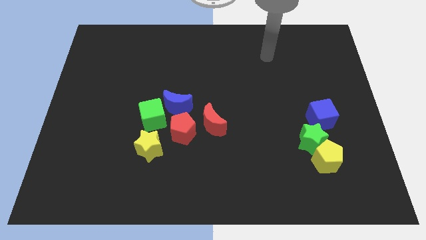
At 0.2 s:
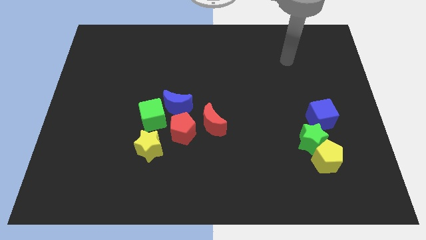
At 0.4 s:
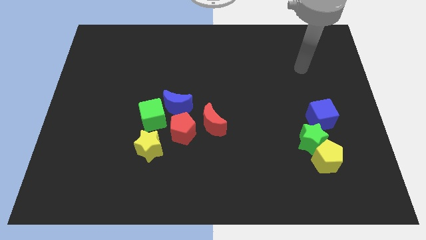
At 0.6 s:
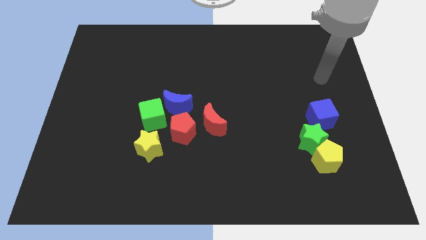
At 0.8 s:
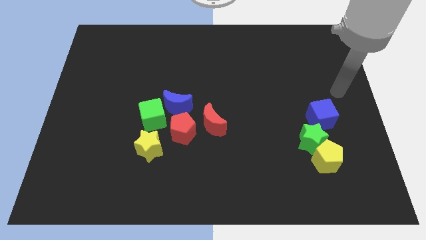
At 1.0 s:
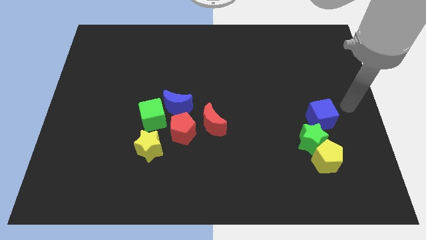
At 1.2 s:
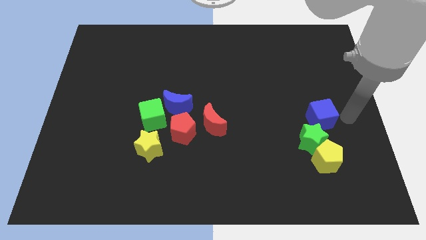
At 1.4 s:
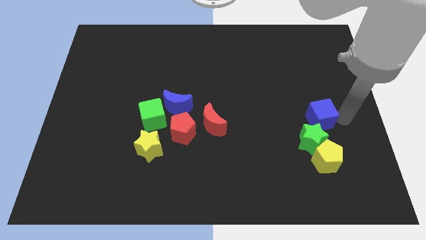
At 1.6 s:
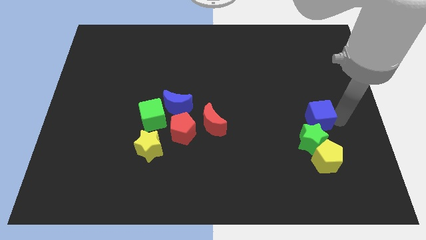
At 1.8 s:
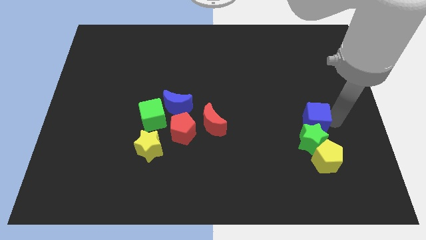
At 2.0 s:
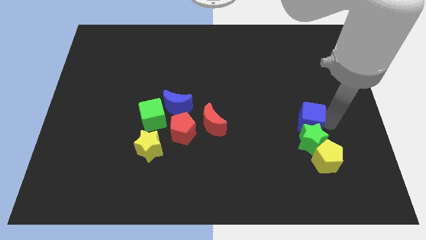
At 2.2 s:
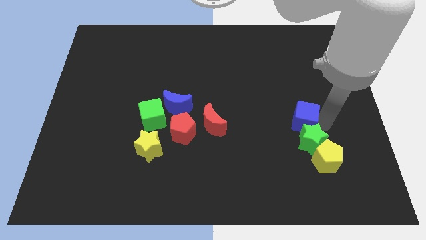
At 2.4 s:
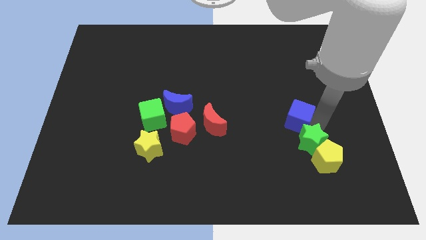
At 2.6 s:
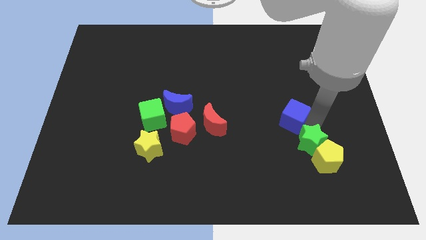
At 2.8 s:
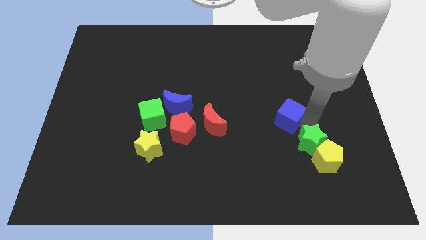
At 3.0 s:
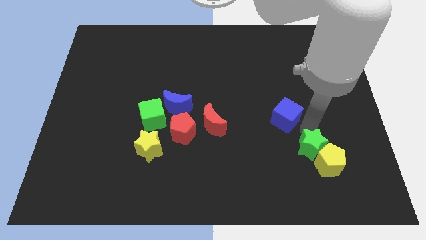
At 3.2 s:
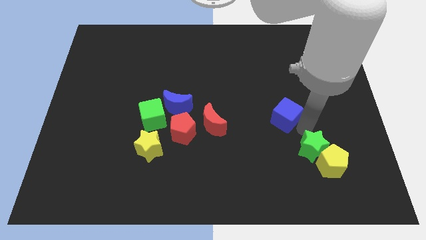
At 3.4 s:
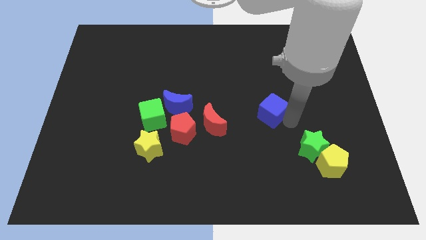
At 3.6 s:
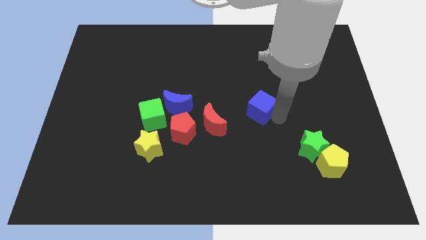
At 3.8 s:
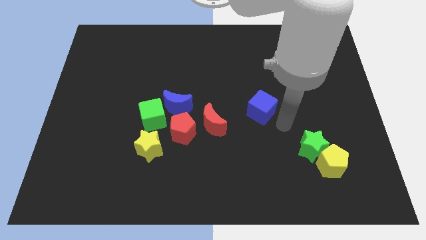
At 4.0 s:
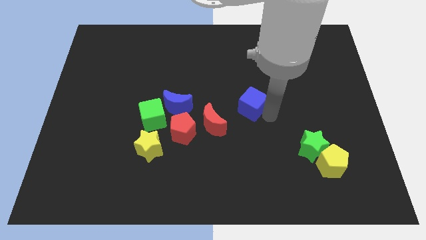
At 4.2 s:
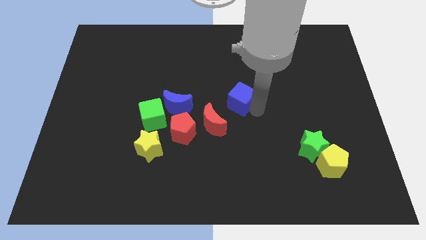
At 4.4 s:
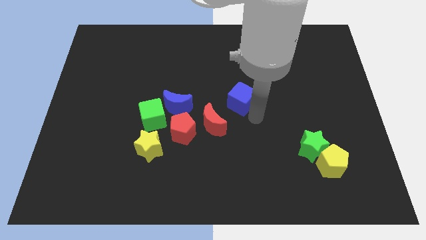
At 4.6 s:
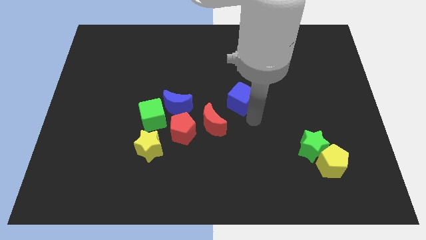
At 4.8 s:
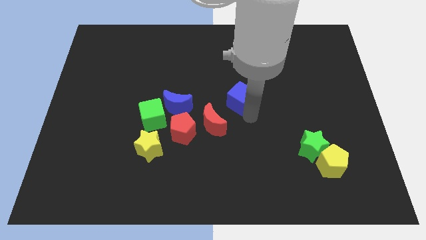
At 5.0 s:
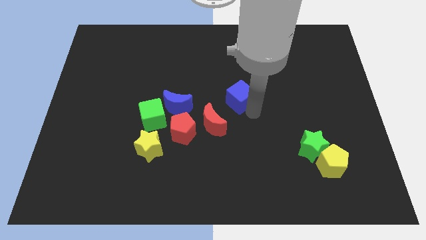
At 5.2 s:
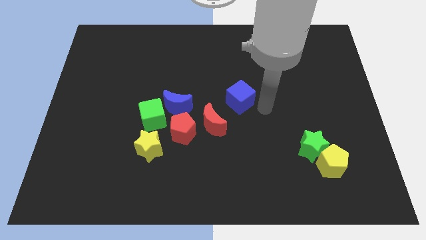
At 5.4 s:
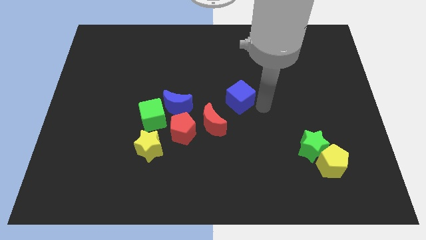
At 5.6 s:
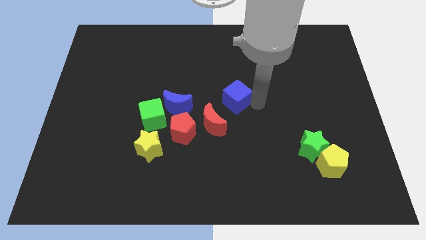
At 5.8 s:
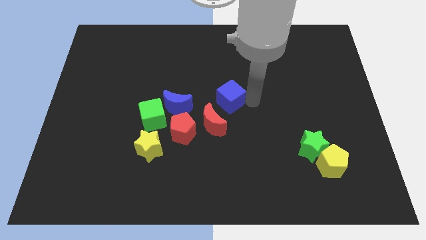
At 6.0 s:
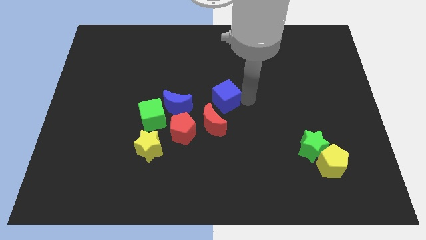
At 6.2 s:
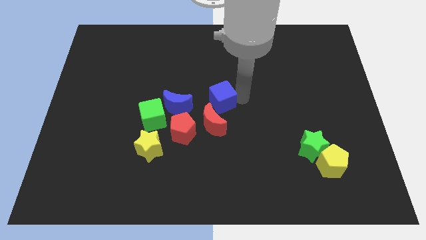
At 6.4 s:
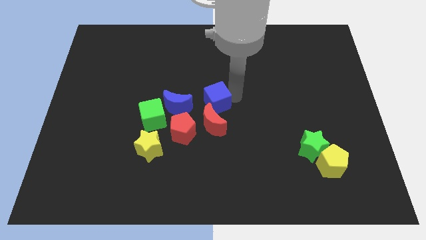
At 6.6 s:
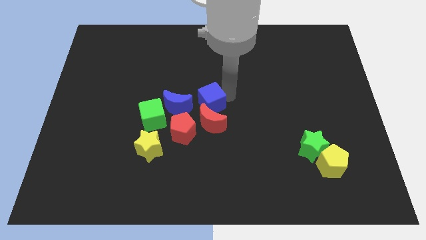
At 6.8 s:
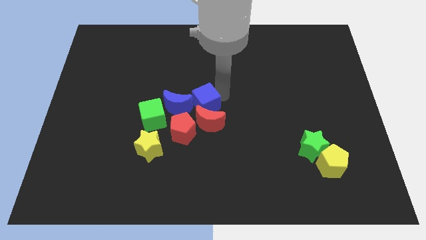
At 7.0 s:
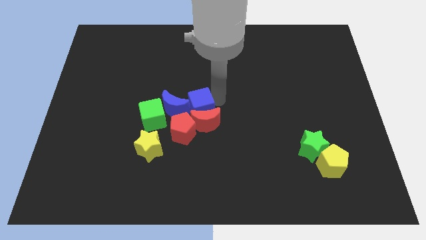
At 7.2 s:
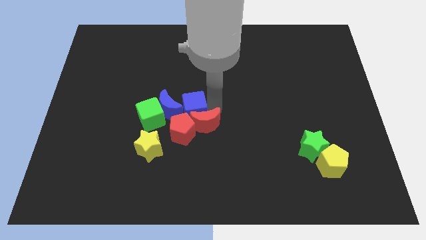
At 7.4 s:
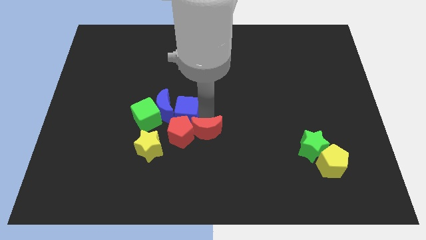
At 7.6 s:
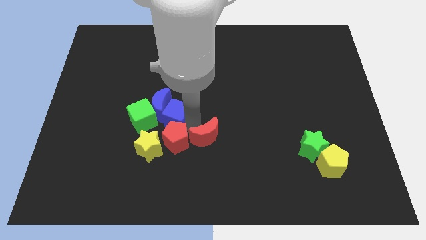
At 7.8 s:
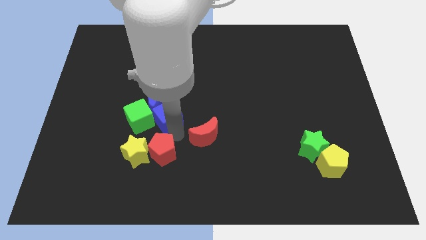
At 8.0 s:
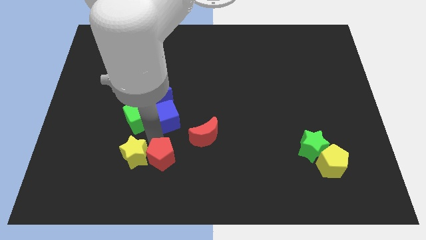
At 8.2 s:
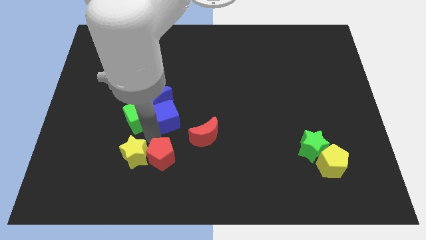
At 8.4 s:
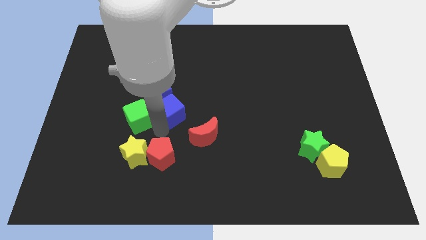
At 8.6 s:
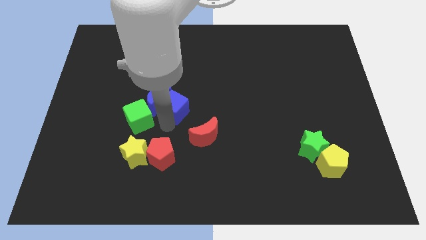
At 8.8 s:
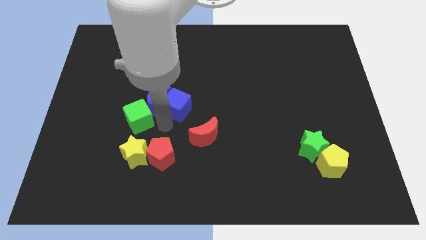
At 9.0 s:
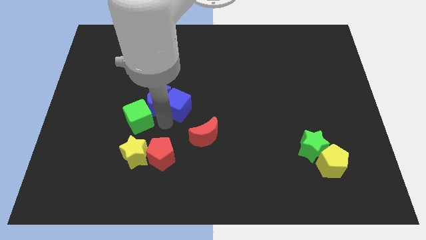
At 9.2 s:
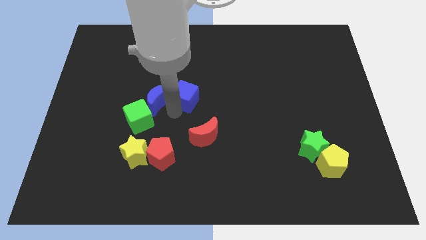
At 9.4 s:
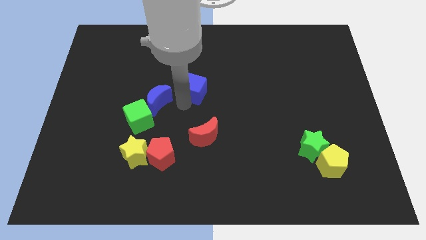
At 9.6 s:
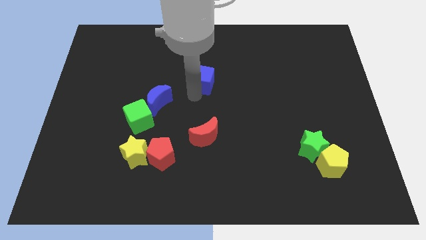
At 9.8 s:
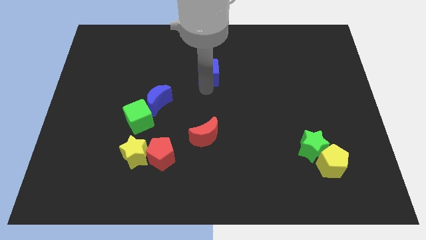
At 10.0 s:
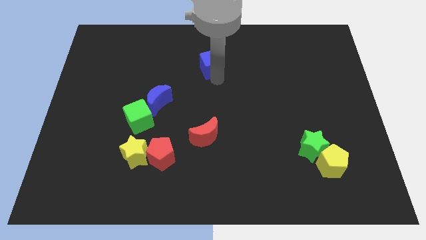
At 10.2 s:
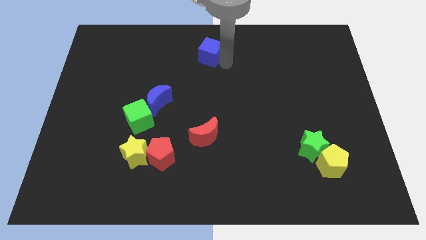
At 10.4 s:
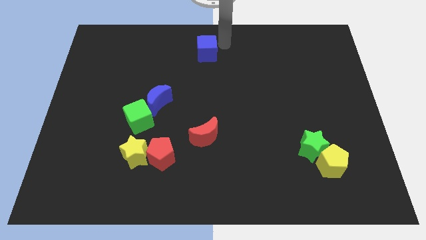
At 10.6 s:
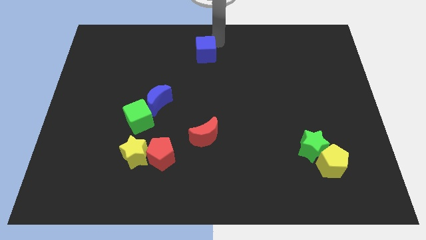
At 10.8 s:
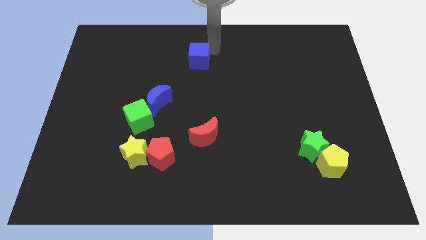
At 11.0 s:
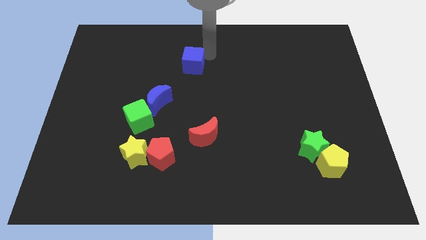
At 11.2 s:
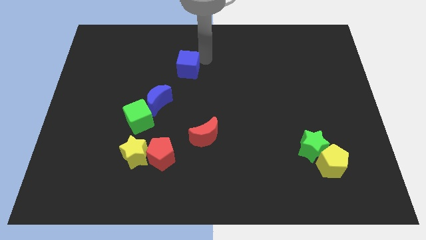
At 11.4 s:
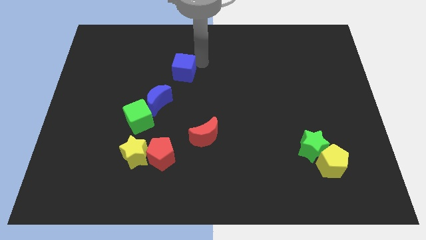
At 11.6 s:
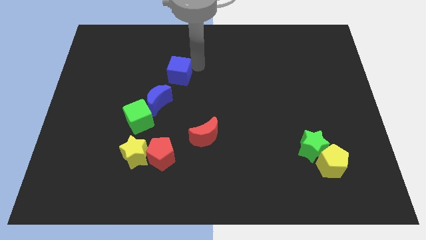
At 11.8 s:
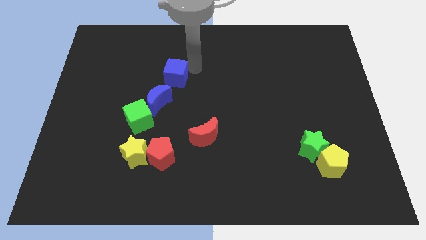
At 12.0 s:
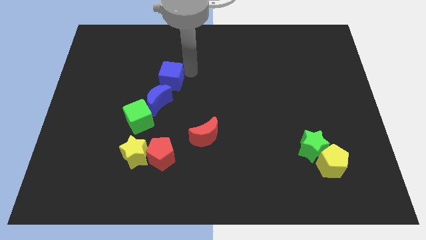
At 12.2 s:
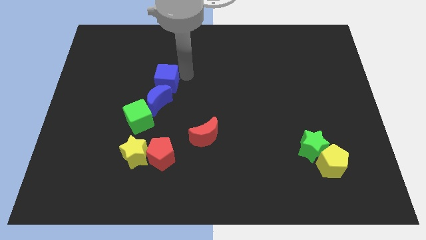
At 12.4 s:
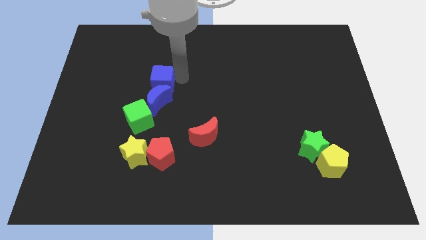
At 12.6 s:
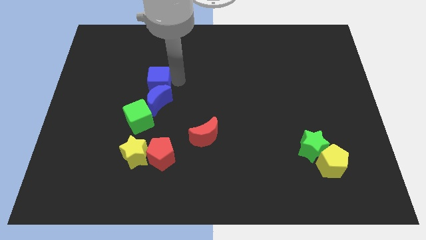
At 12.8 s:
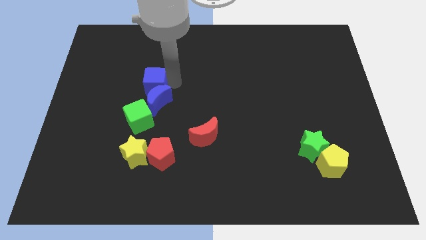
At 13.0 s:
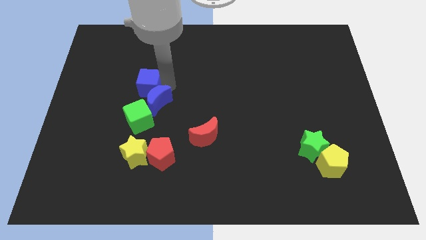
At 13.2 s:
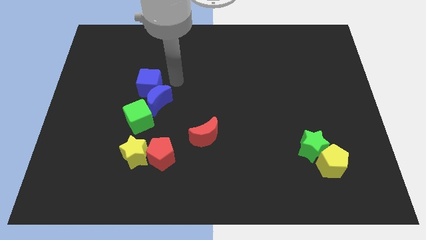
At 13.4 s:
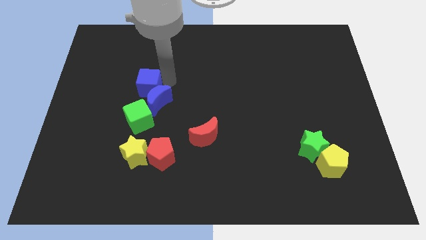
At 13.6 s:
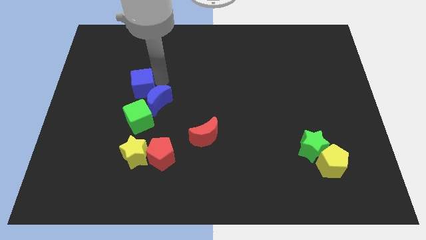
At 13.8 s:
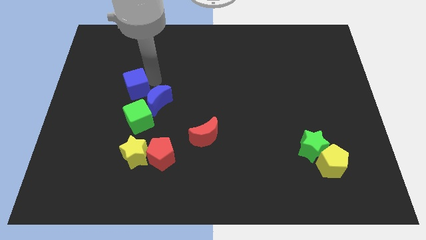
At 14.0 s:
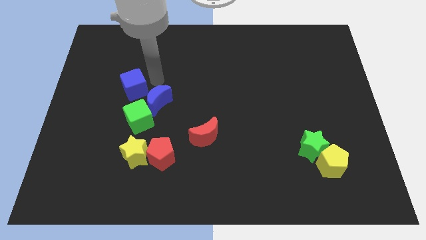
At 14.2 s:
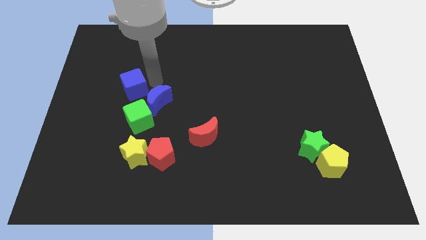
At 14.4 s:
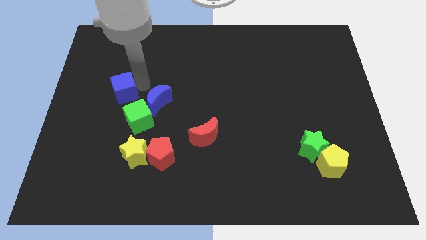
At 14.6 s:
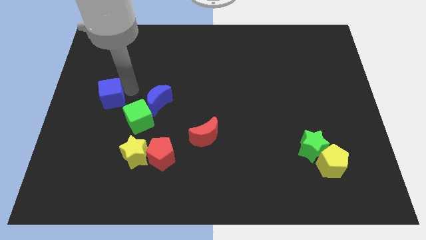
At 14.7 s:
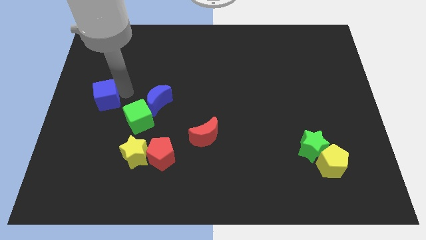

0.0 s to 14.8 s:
put the blue cube to the left side of the board
